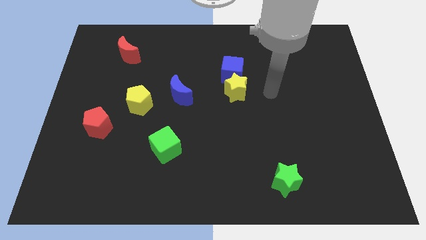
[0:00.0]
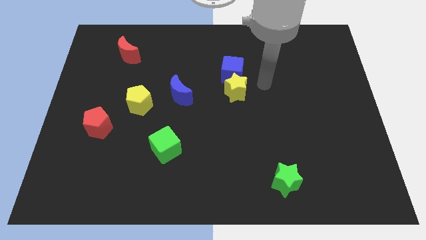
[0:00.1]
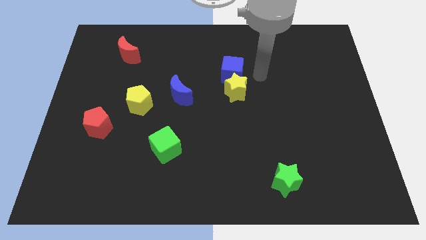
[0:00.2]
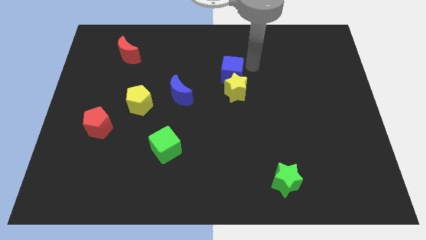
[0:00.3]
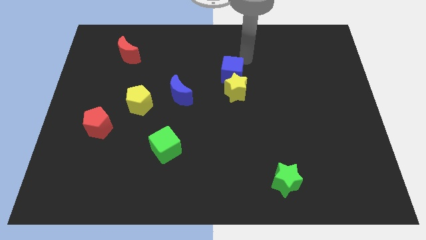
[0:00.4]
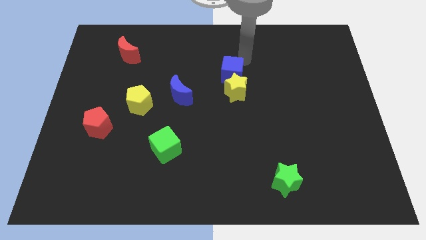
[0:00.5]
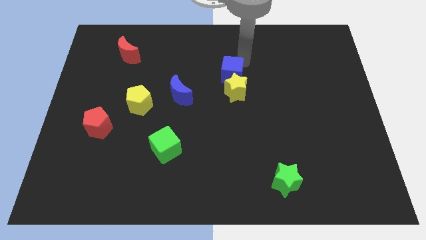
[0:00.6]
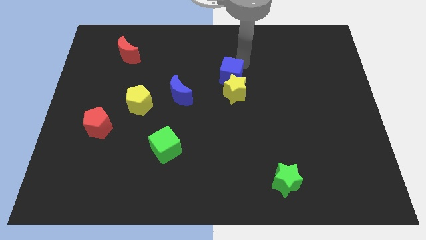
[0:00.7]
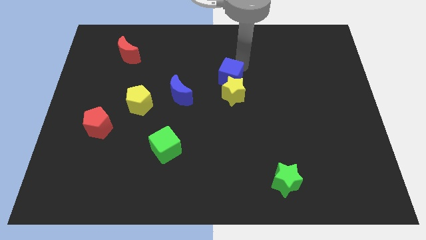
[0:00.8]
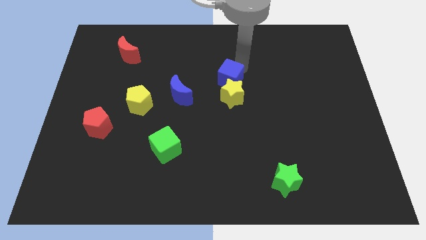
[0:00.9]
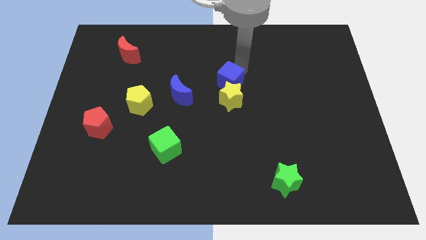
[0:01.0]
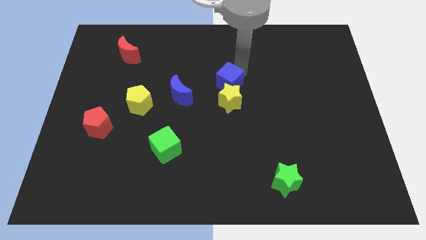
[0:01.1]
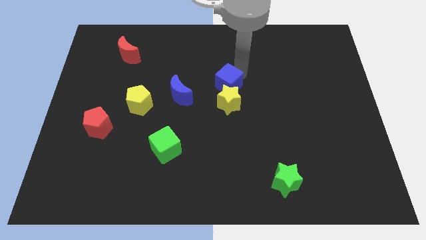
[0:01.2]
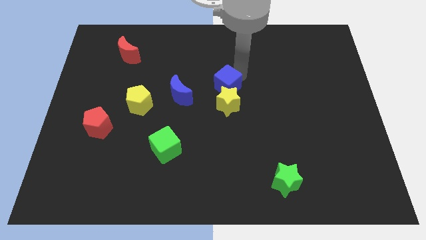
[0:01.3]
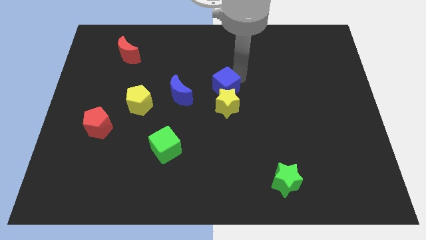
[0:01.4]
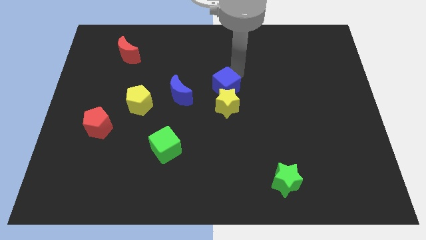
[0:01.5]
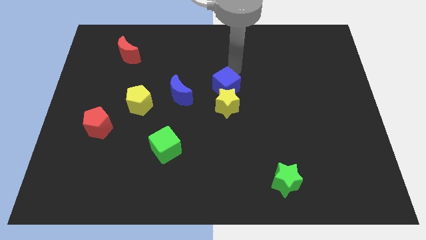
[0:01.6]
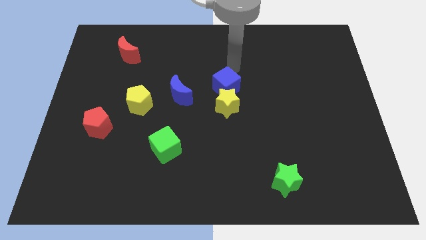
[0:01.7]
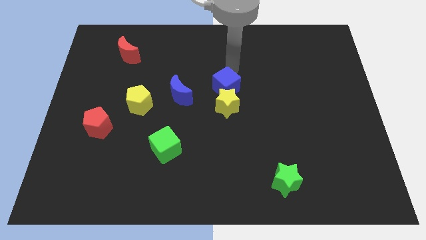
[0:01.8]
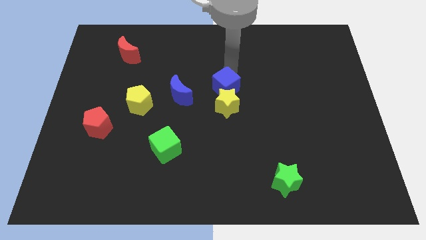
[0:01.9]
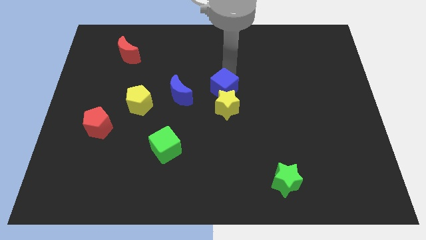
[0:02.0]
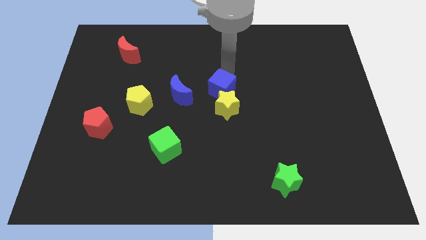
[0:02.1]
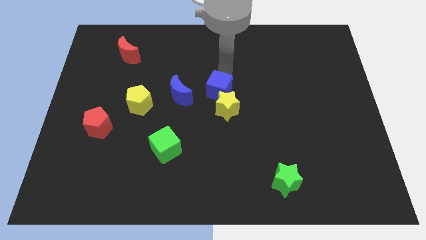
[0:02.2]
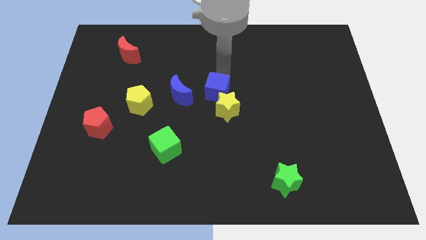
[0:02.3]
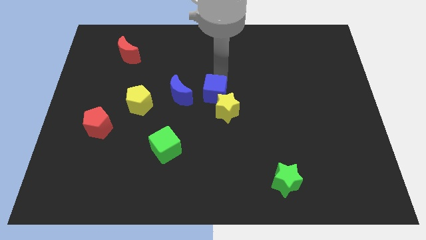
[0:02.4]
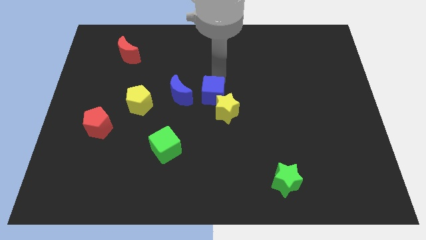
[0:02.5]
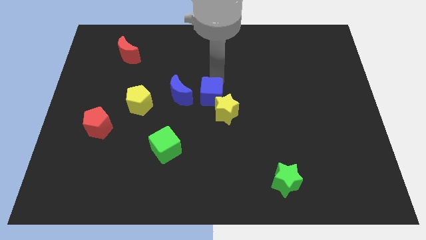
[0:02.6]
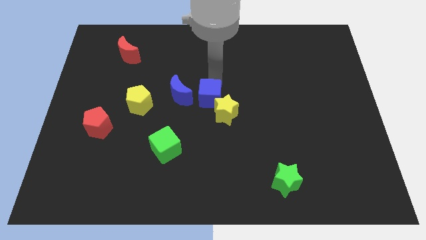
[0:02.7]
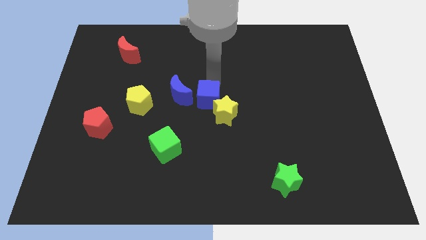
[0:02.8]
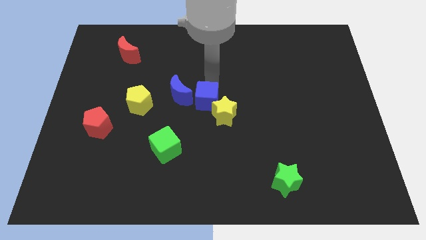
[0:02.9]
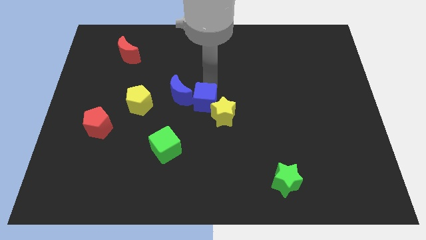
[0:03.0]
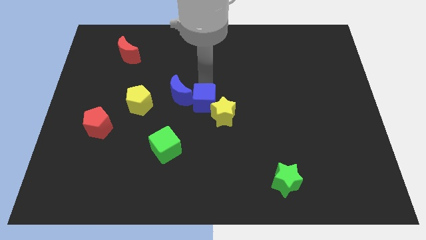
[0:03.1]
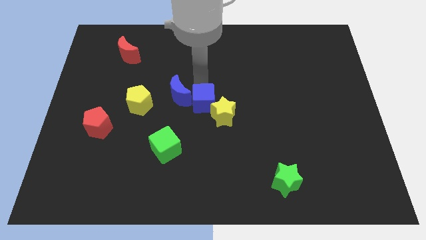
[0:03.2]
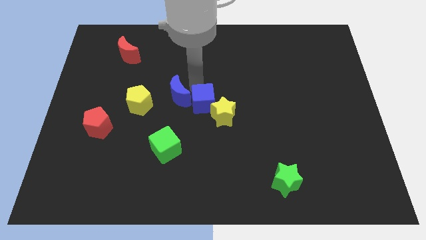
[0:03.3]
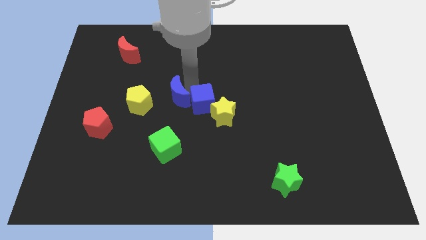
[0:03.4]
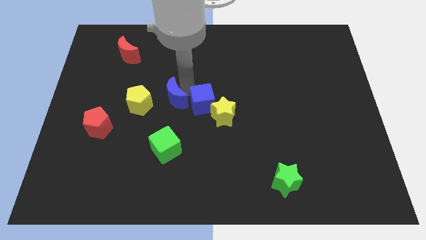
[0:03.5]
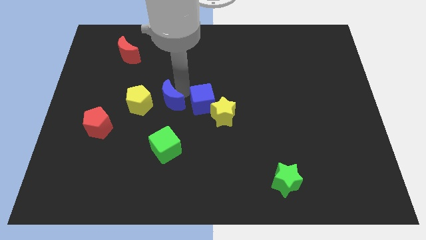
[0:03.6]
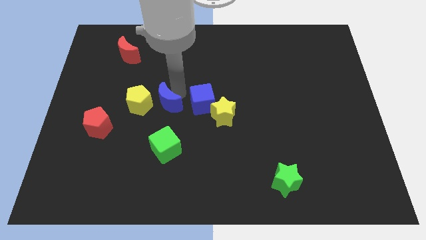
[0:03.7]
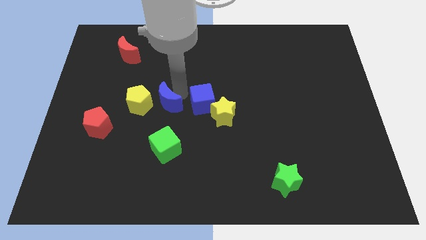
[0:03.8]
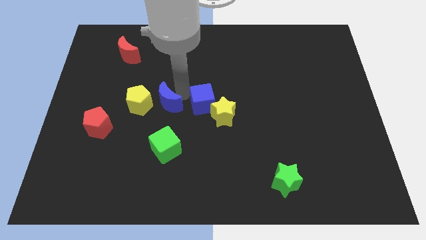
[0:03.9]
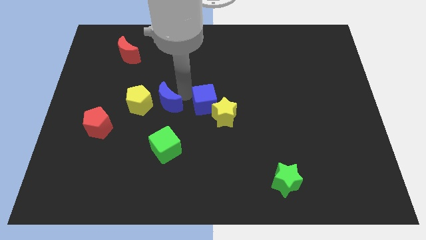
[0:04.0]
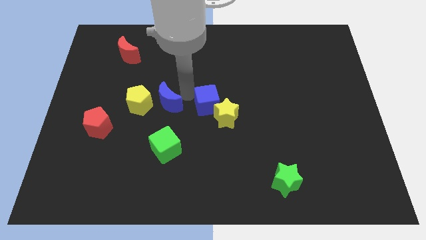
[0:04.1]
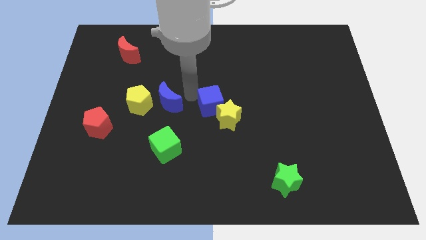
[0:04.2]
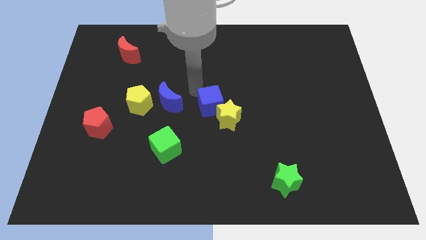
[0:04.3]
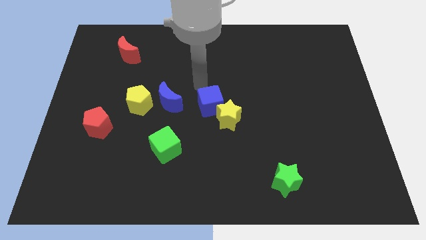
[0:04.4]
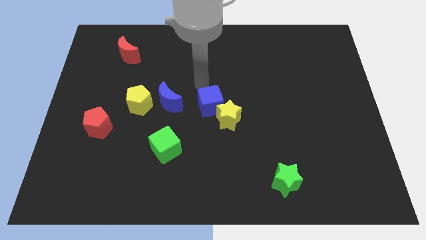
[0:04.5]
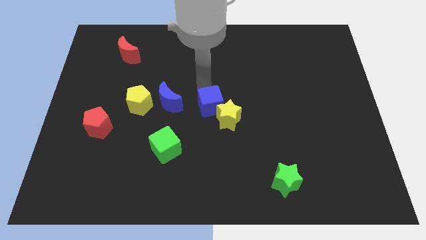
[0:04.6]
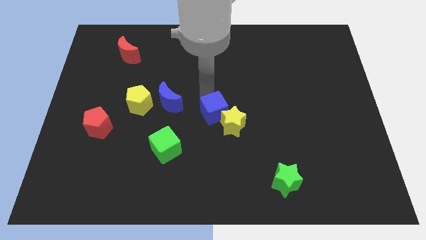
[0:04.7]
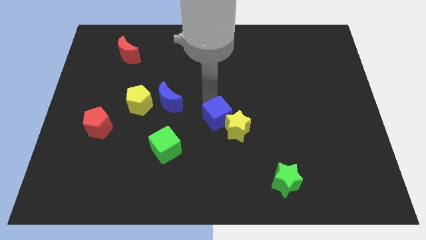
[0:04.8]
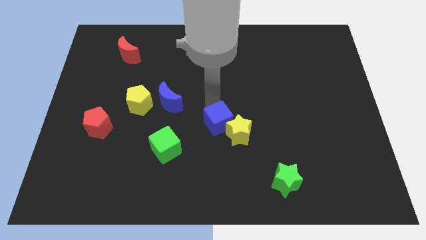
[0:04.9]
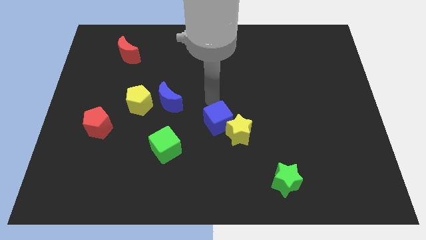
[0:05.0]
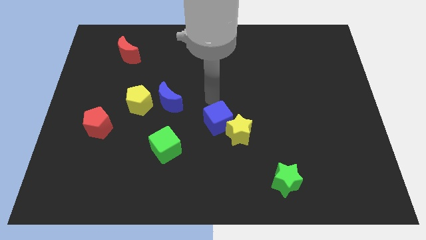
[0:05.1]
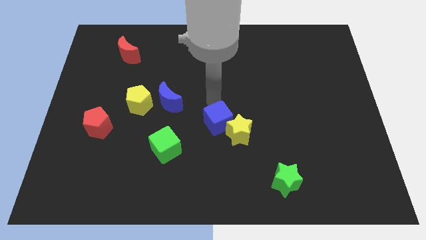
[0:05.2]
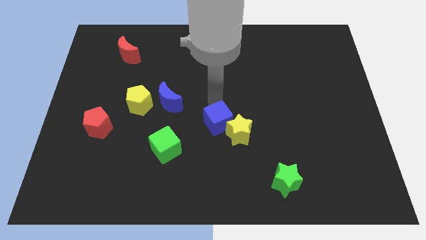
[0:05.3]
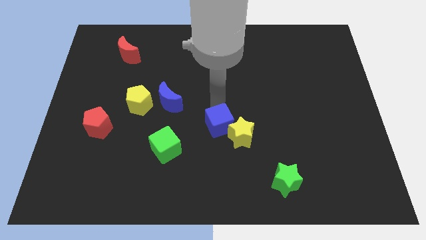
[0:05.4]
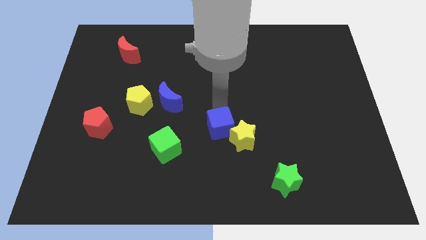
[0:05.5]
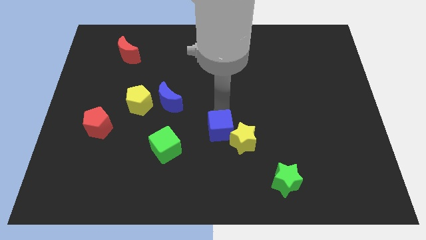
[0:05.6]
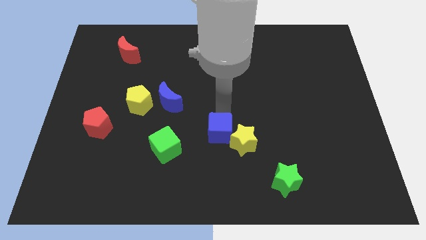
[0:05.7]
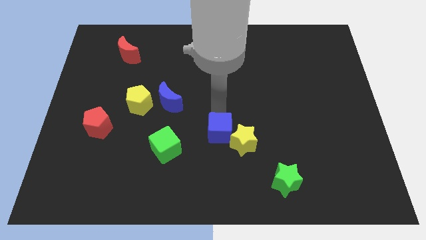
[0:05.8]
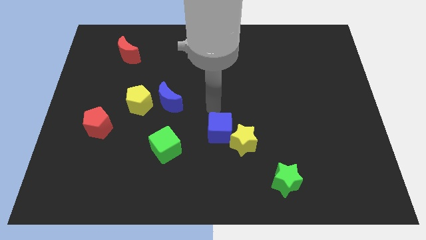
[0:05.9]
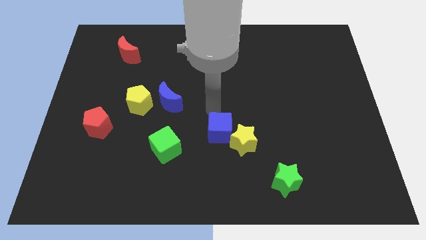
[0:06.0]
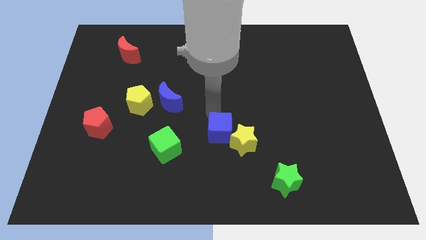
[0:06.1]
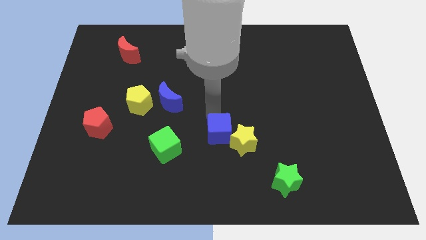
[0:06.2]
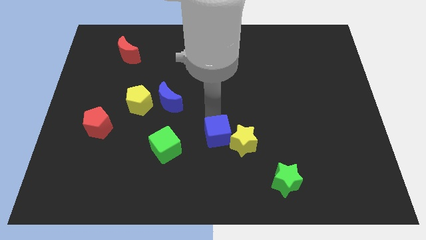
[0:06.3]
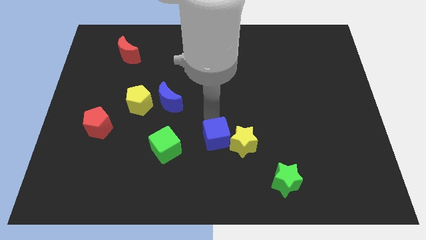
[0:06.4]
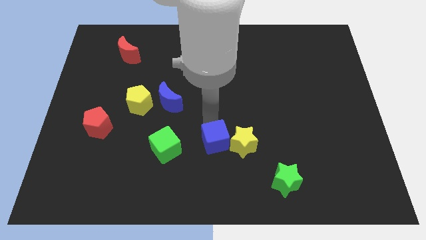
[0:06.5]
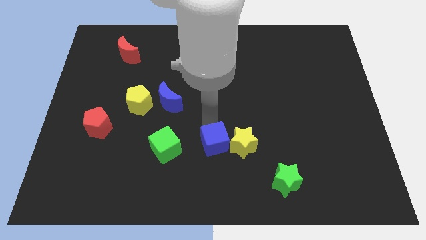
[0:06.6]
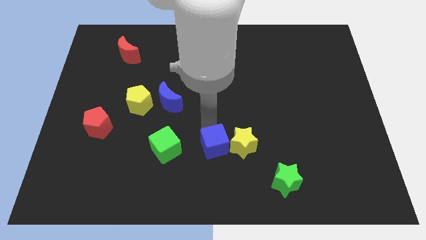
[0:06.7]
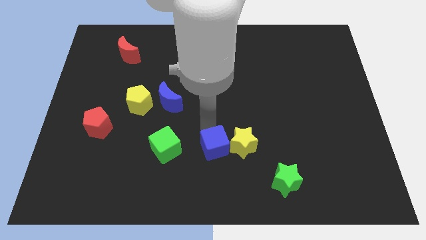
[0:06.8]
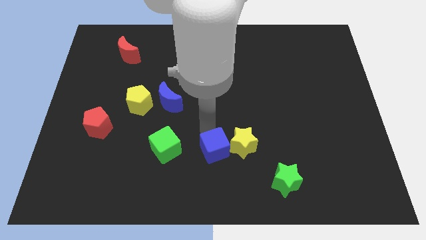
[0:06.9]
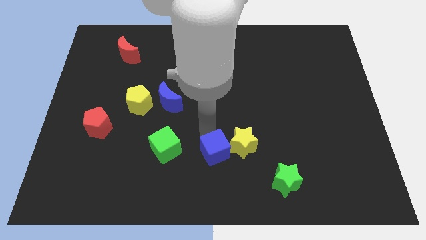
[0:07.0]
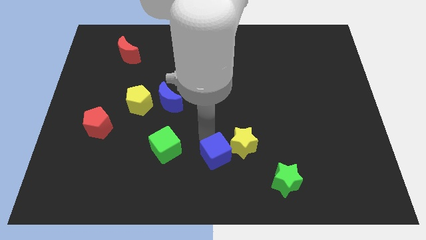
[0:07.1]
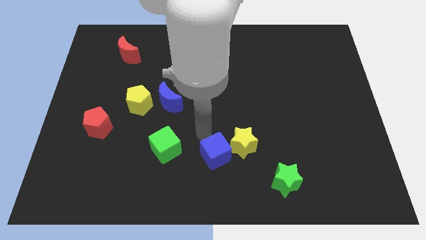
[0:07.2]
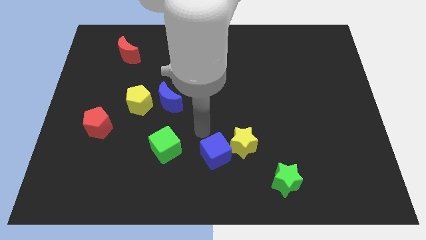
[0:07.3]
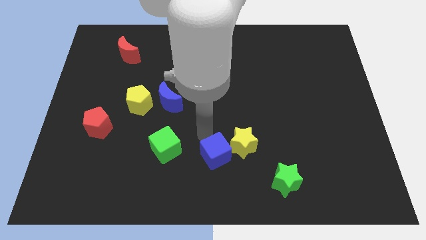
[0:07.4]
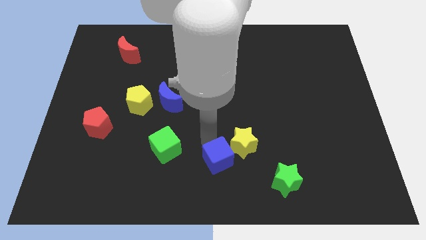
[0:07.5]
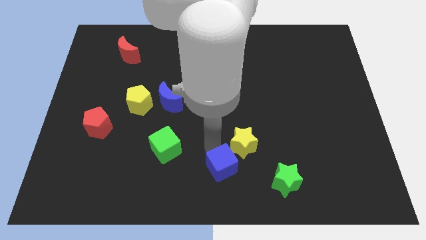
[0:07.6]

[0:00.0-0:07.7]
slide the blue cube left of the green star
